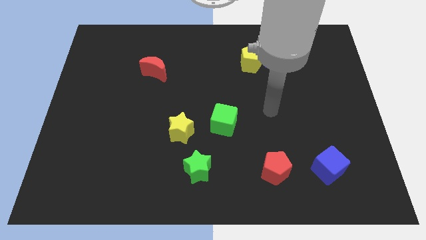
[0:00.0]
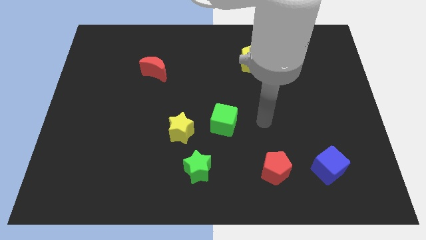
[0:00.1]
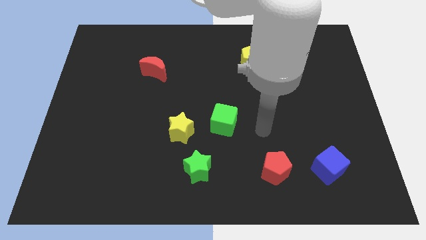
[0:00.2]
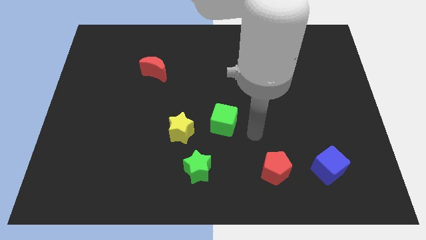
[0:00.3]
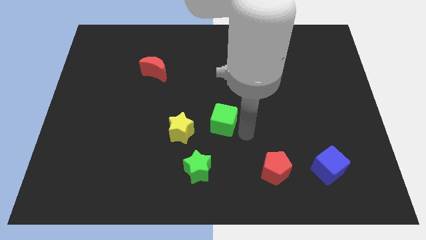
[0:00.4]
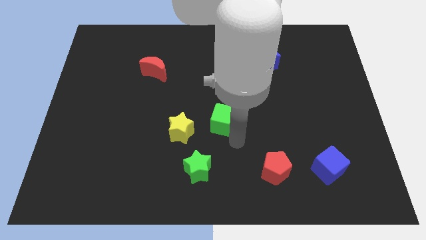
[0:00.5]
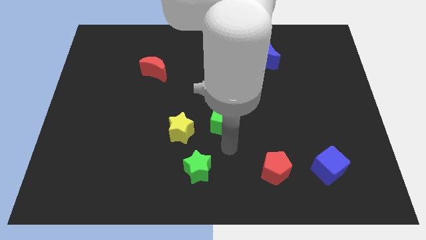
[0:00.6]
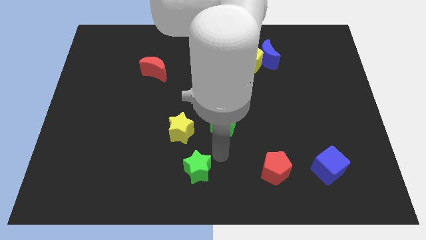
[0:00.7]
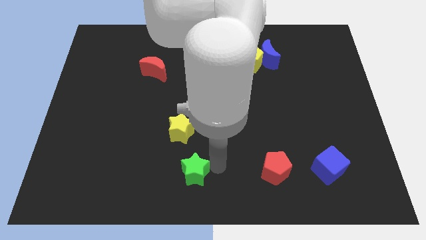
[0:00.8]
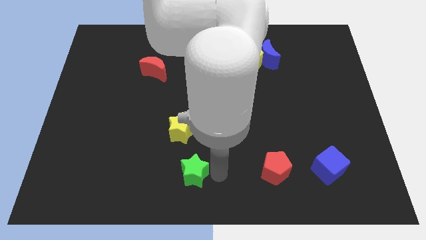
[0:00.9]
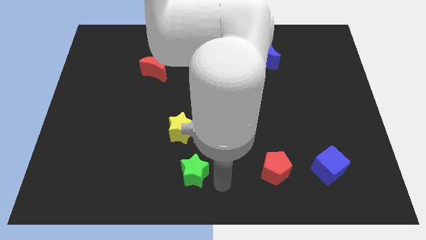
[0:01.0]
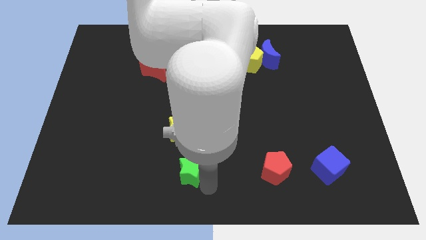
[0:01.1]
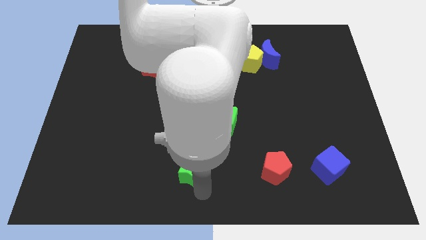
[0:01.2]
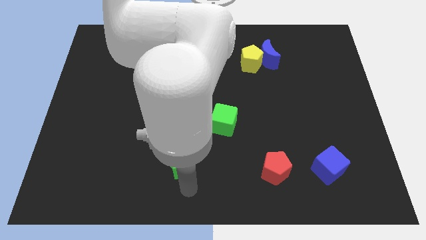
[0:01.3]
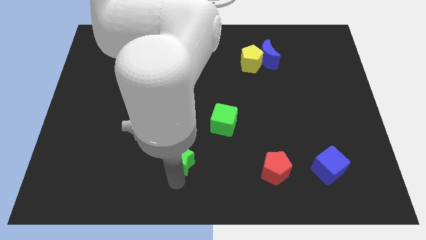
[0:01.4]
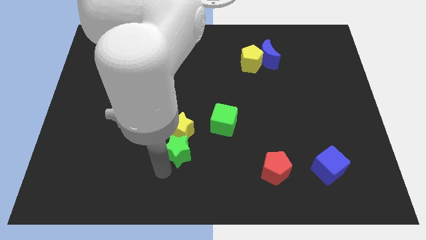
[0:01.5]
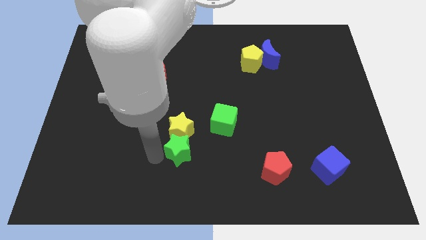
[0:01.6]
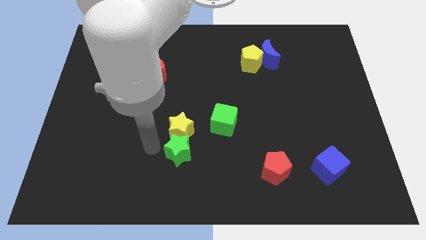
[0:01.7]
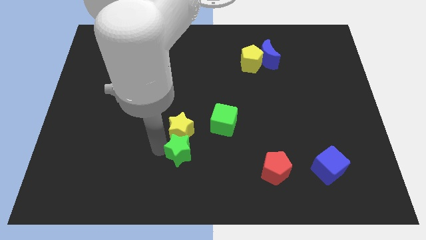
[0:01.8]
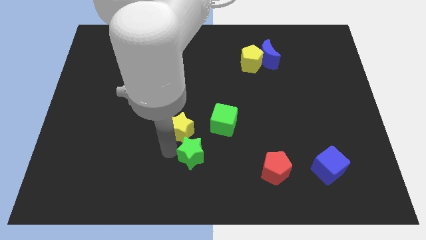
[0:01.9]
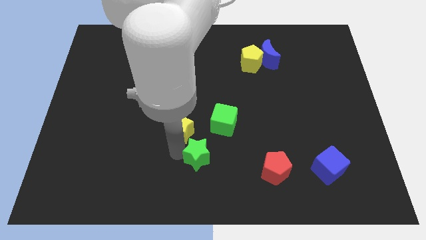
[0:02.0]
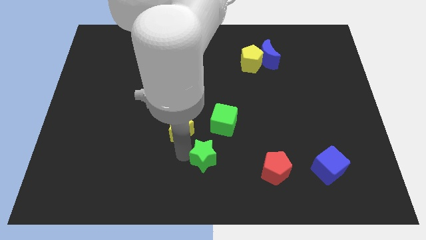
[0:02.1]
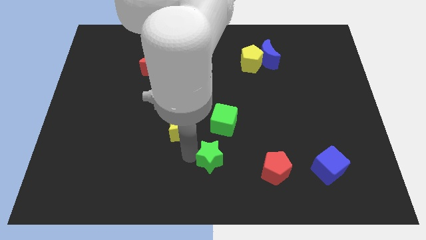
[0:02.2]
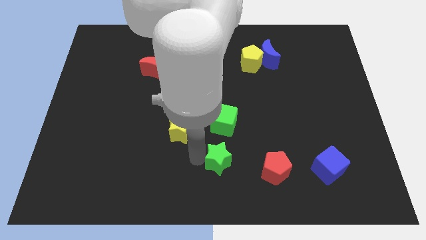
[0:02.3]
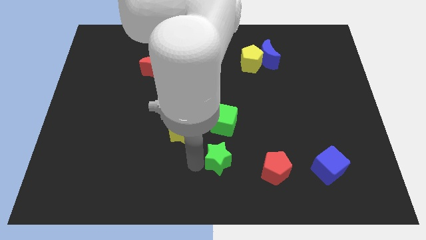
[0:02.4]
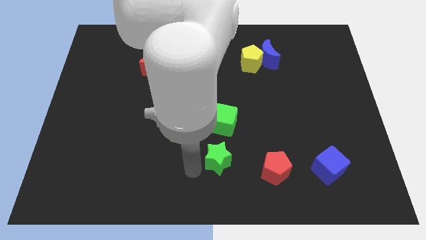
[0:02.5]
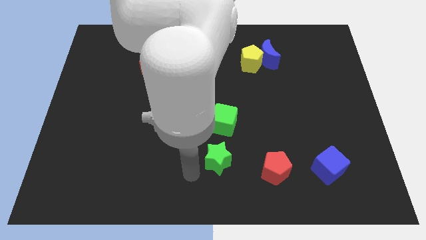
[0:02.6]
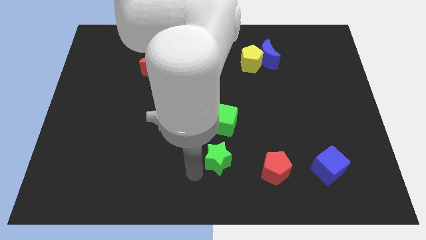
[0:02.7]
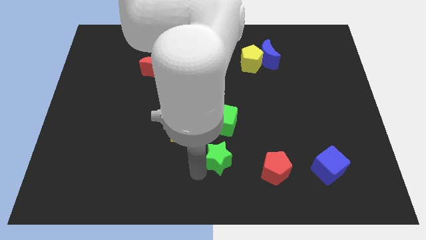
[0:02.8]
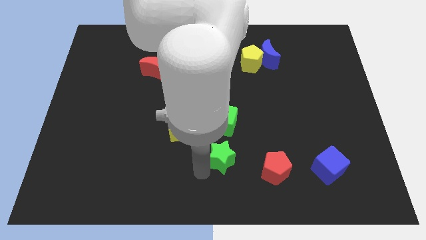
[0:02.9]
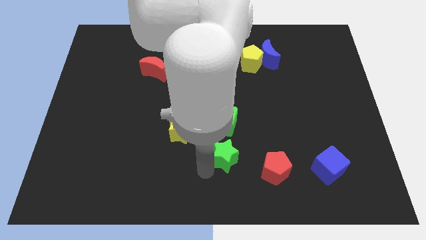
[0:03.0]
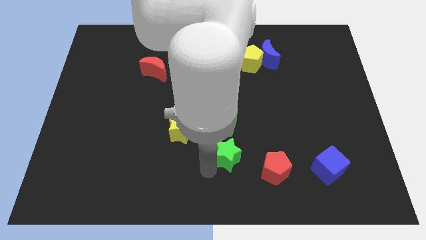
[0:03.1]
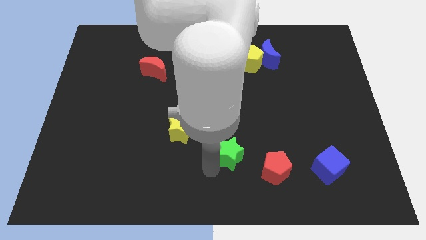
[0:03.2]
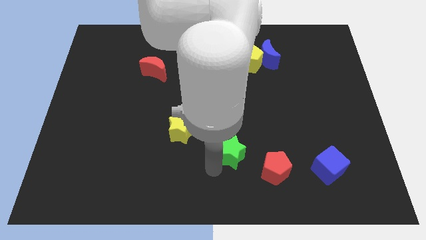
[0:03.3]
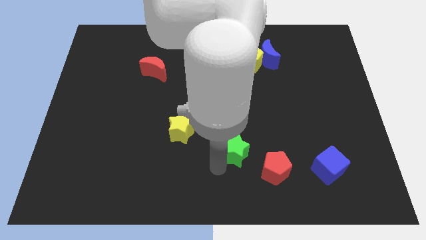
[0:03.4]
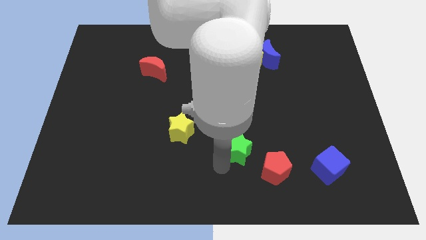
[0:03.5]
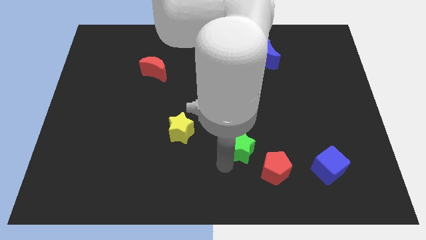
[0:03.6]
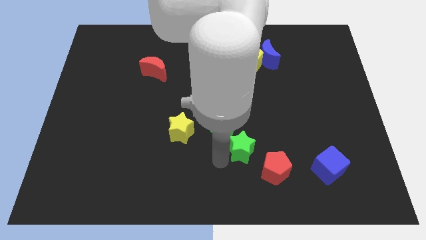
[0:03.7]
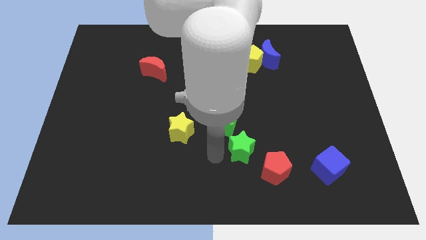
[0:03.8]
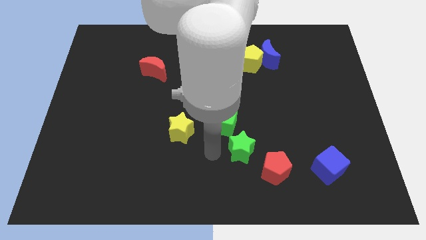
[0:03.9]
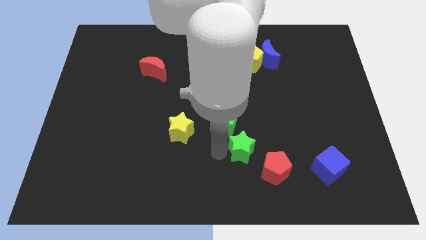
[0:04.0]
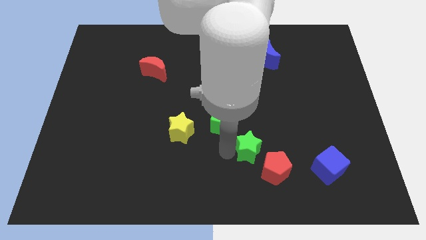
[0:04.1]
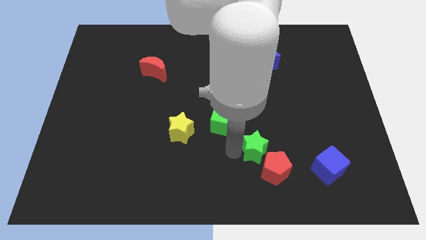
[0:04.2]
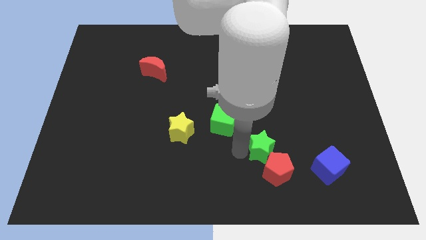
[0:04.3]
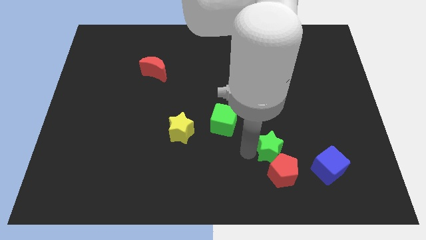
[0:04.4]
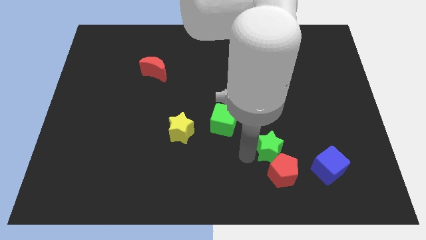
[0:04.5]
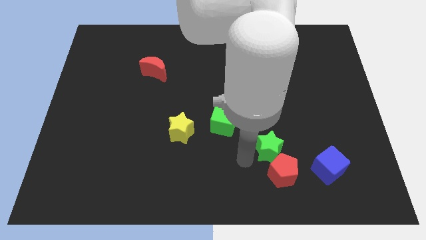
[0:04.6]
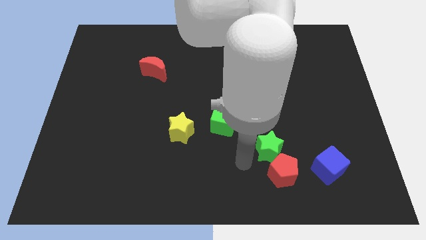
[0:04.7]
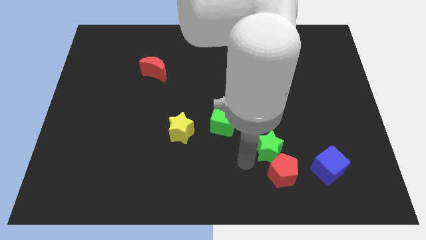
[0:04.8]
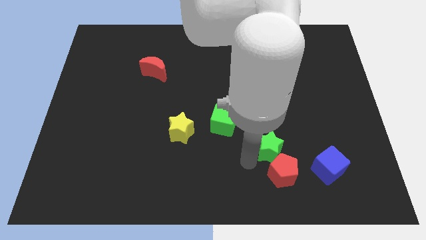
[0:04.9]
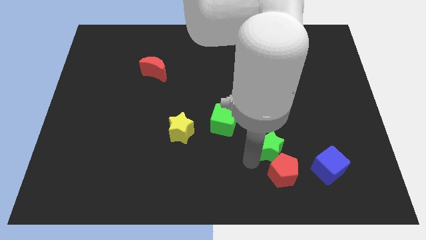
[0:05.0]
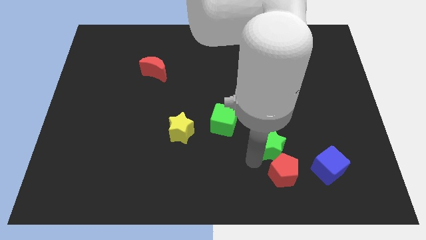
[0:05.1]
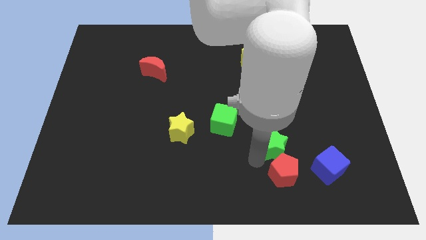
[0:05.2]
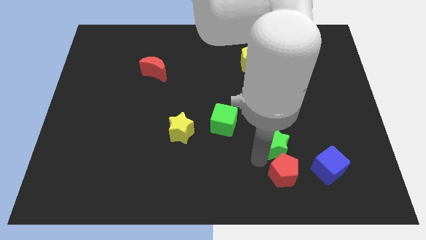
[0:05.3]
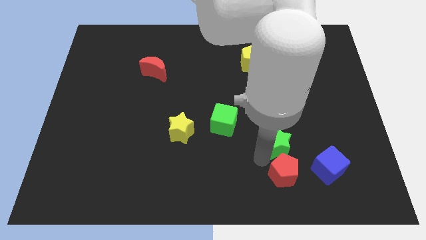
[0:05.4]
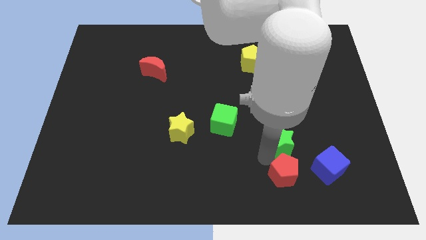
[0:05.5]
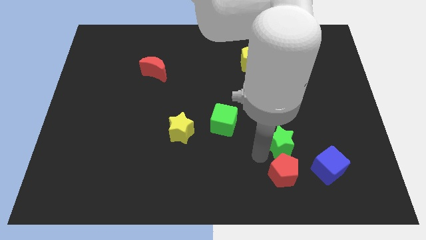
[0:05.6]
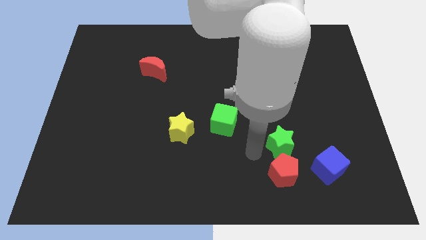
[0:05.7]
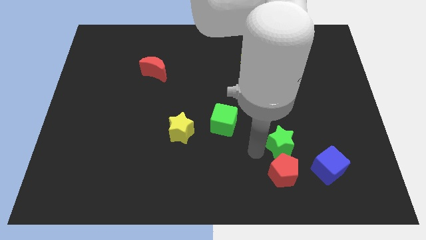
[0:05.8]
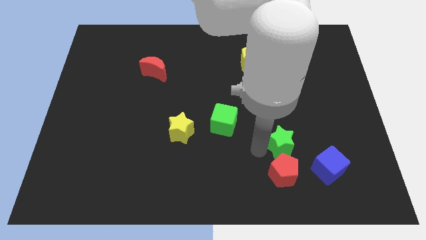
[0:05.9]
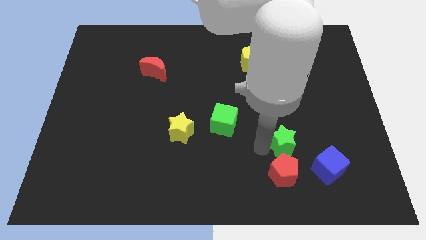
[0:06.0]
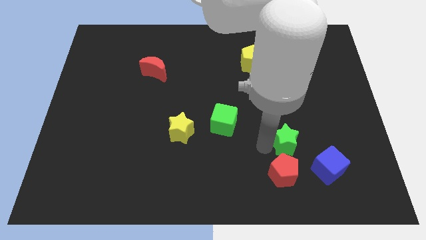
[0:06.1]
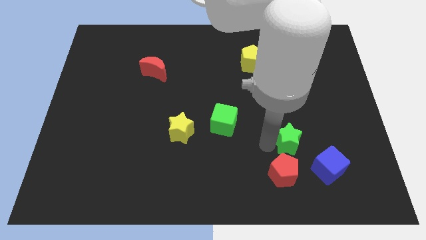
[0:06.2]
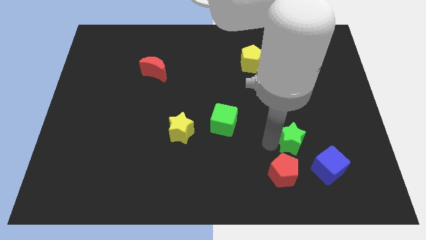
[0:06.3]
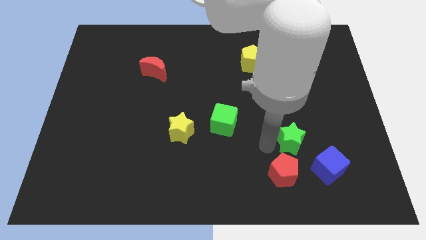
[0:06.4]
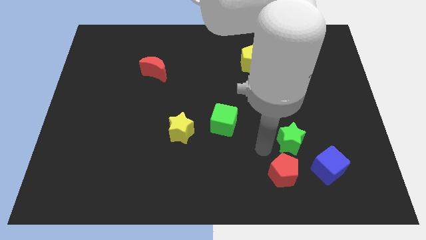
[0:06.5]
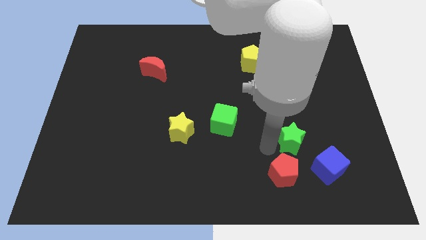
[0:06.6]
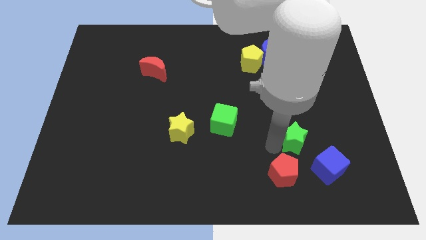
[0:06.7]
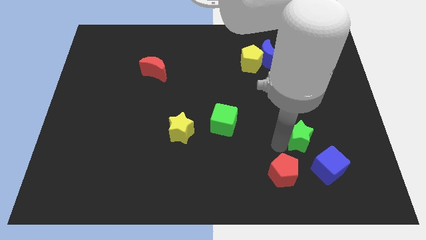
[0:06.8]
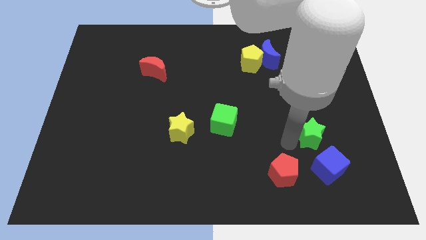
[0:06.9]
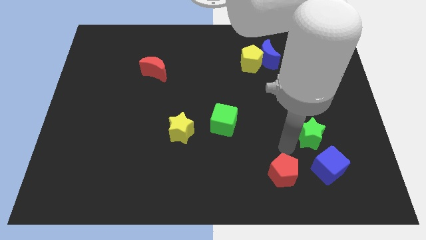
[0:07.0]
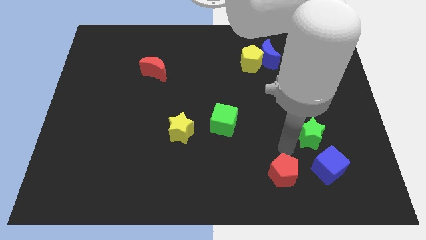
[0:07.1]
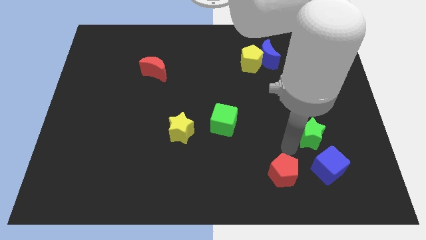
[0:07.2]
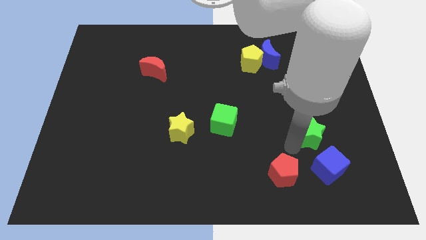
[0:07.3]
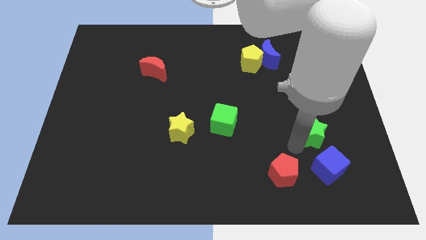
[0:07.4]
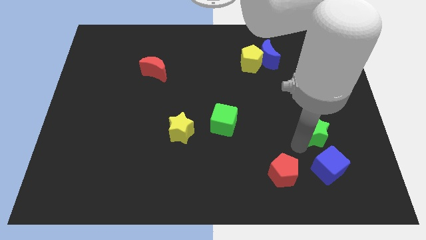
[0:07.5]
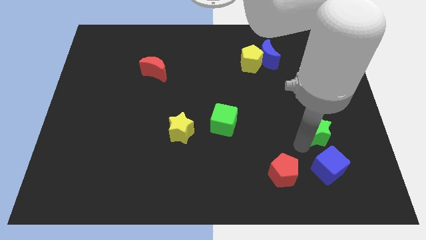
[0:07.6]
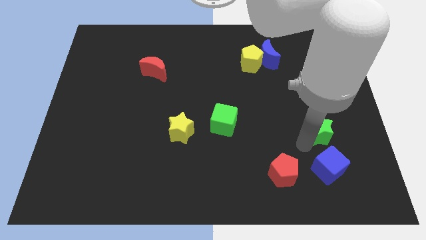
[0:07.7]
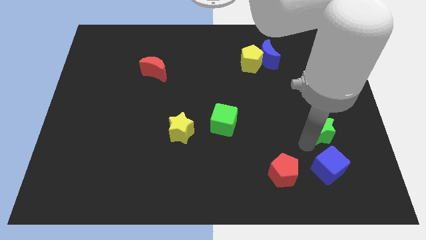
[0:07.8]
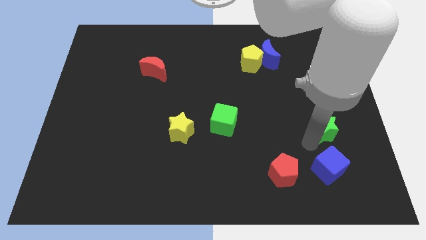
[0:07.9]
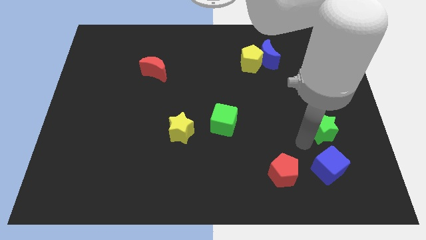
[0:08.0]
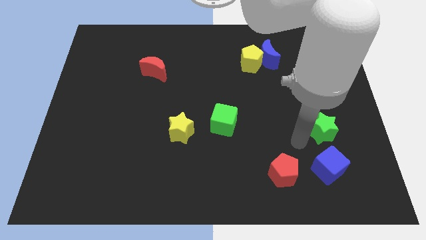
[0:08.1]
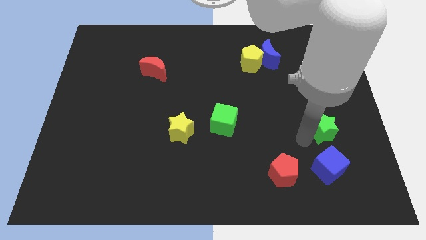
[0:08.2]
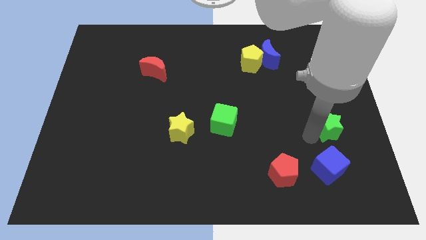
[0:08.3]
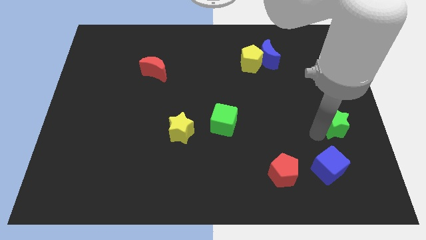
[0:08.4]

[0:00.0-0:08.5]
put the green star to the right side of the board
